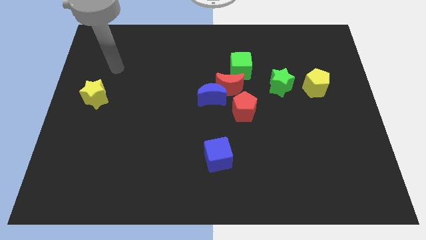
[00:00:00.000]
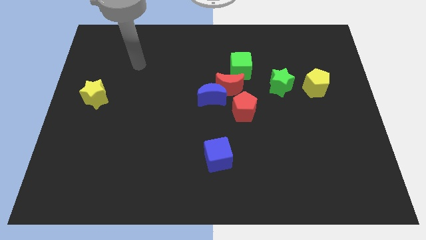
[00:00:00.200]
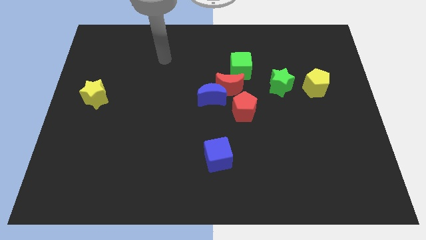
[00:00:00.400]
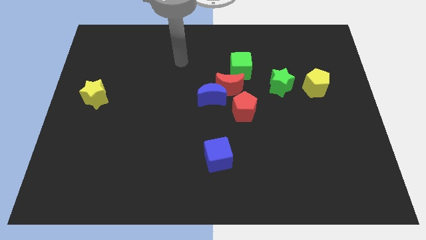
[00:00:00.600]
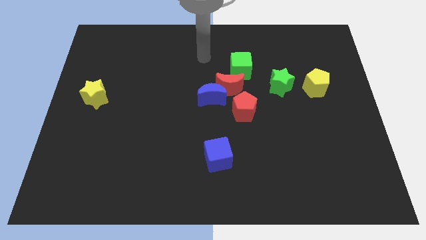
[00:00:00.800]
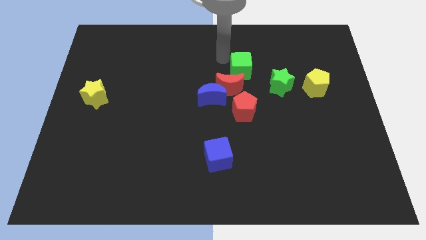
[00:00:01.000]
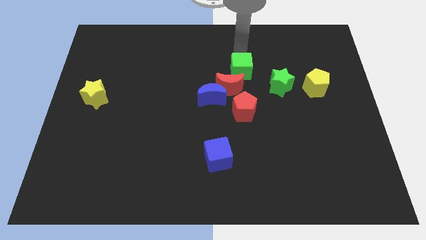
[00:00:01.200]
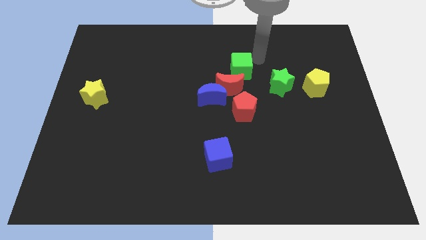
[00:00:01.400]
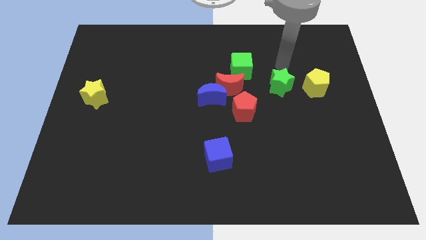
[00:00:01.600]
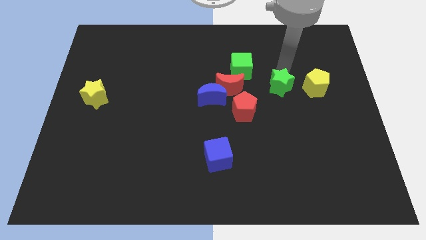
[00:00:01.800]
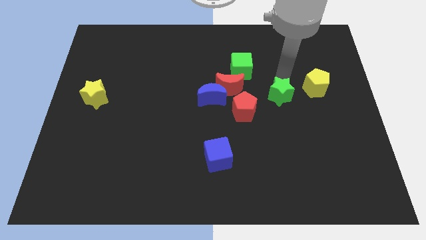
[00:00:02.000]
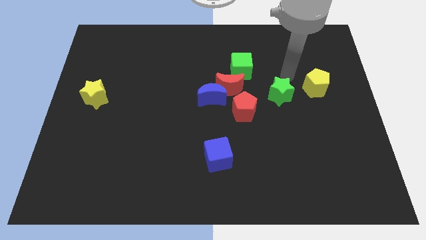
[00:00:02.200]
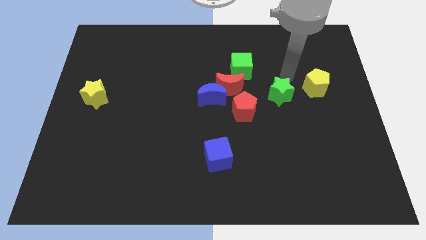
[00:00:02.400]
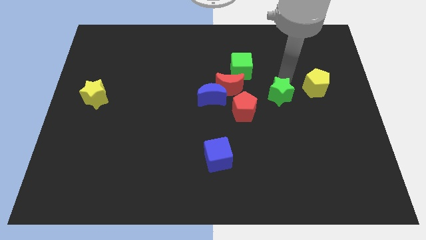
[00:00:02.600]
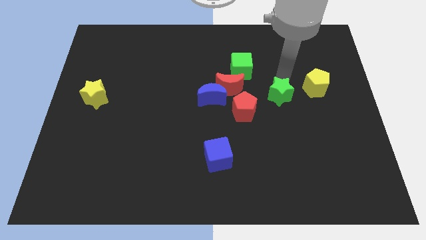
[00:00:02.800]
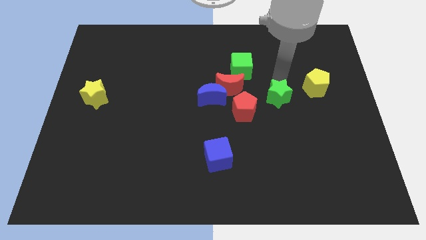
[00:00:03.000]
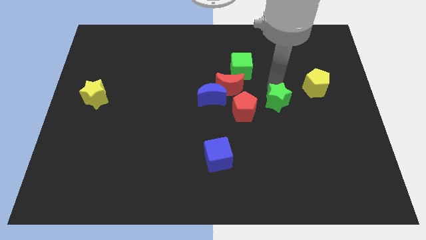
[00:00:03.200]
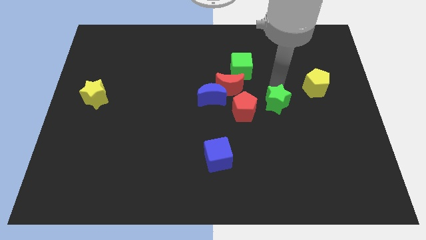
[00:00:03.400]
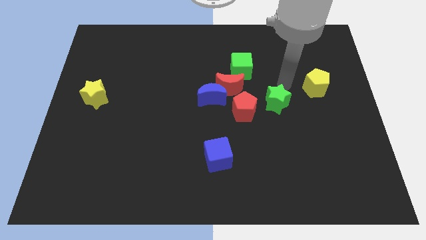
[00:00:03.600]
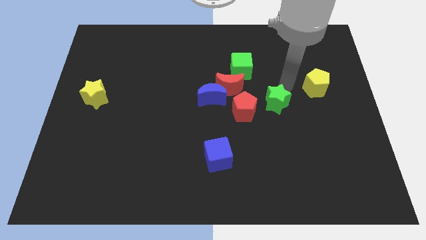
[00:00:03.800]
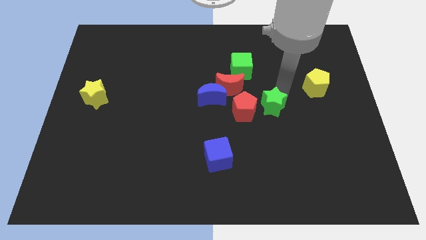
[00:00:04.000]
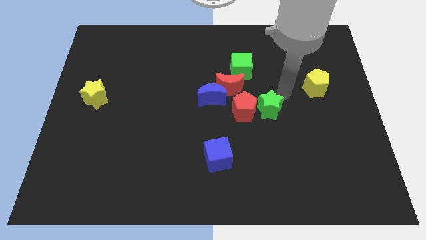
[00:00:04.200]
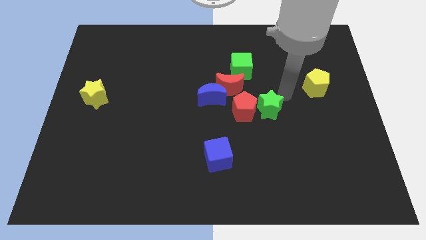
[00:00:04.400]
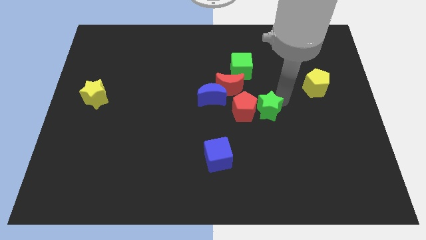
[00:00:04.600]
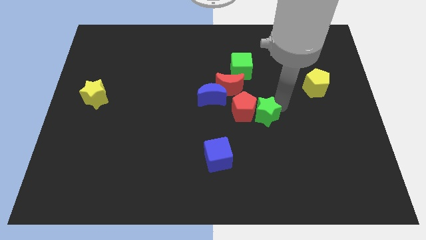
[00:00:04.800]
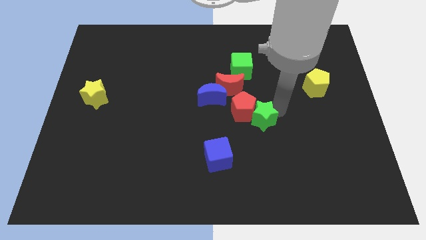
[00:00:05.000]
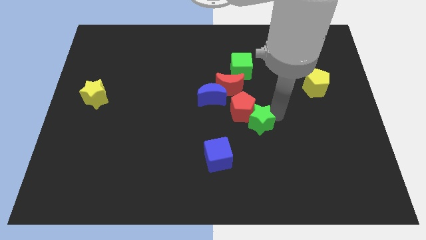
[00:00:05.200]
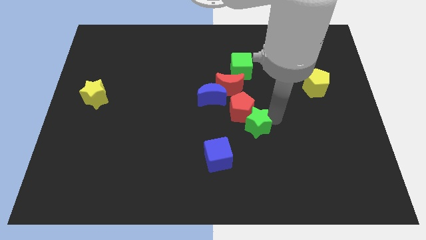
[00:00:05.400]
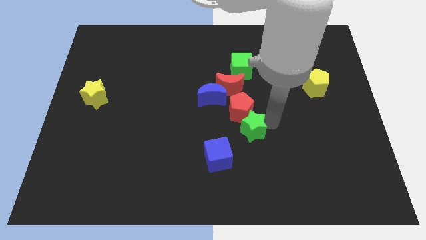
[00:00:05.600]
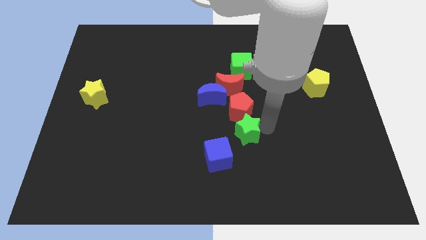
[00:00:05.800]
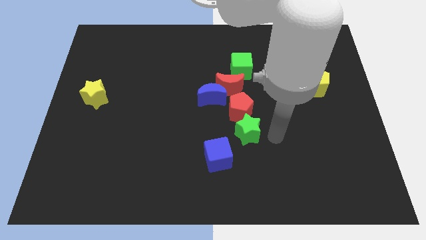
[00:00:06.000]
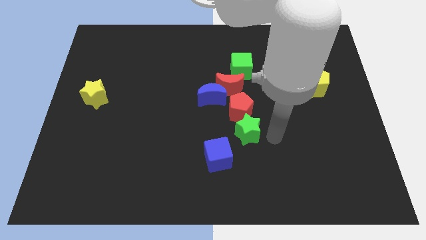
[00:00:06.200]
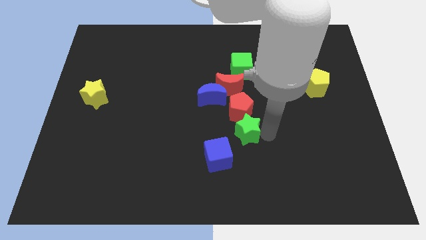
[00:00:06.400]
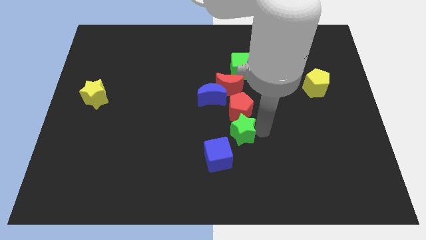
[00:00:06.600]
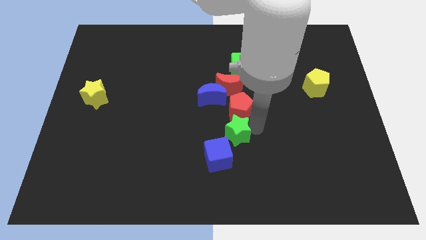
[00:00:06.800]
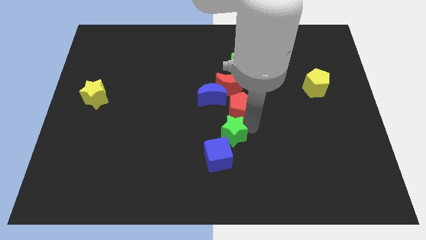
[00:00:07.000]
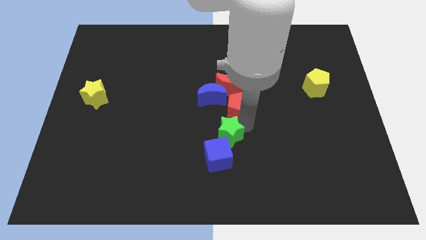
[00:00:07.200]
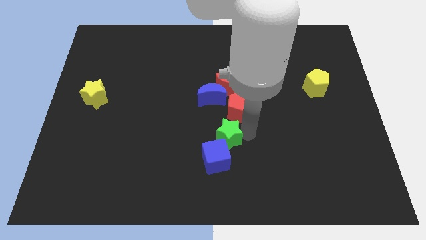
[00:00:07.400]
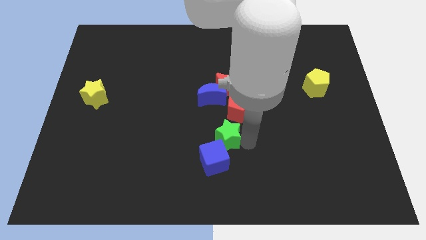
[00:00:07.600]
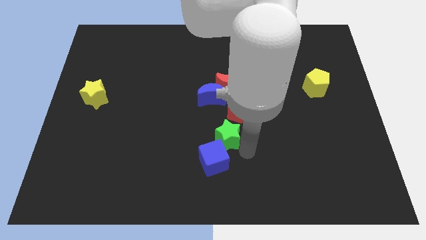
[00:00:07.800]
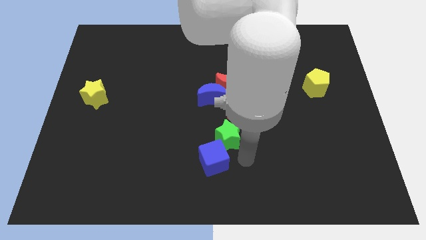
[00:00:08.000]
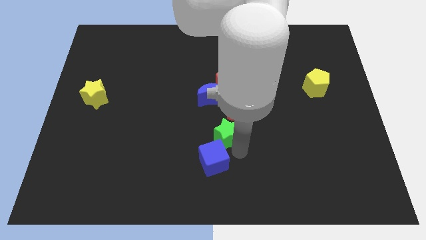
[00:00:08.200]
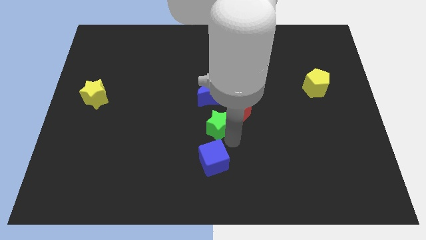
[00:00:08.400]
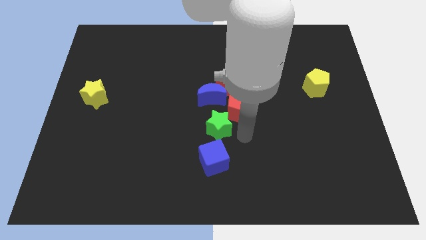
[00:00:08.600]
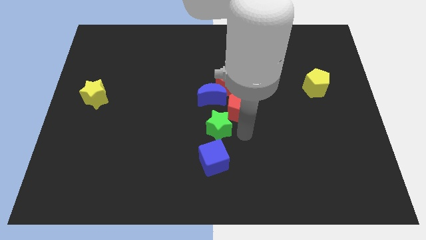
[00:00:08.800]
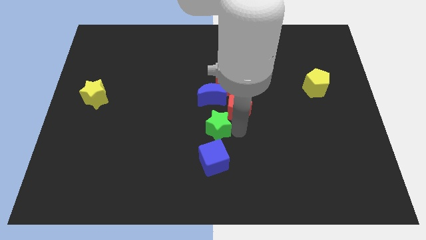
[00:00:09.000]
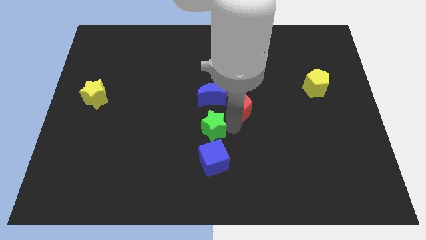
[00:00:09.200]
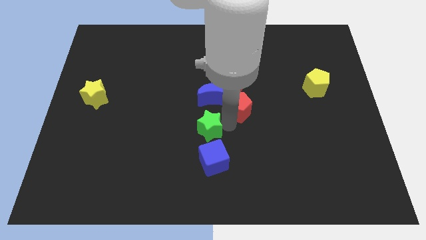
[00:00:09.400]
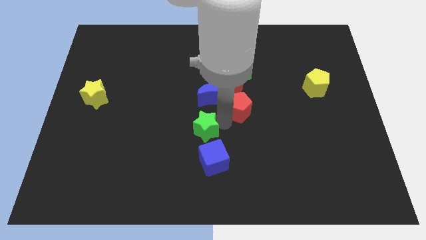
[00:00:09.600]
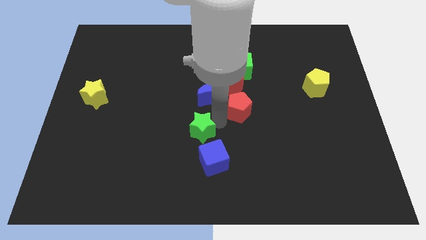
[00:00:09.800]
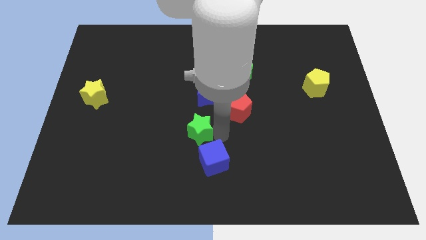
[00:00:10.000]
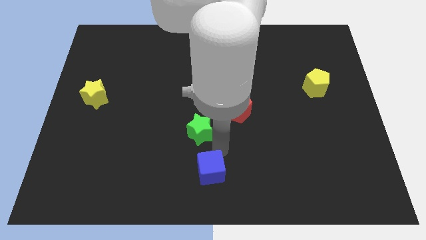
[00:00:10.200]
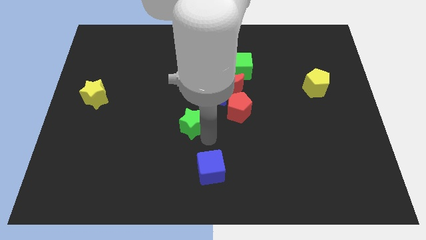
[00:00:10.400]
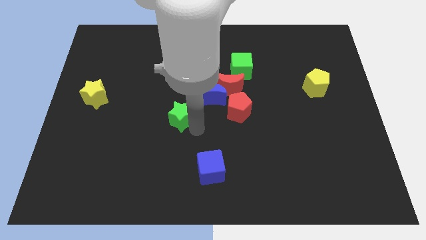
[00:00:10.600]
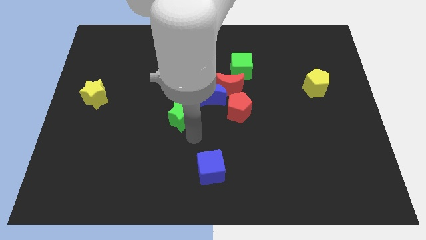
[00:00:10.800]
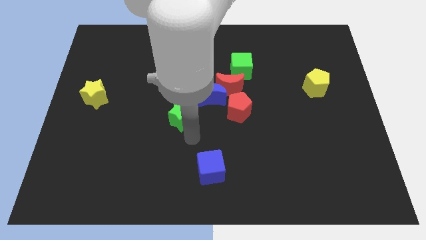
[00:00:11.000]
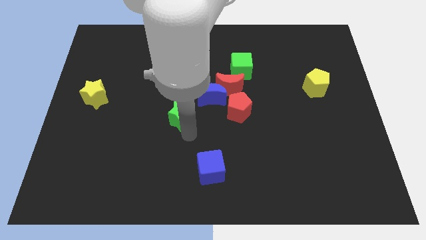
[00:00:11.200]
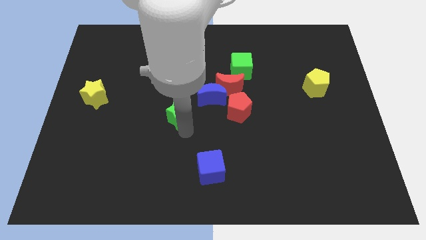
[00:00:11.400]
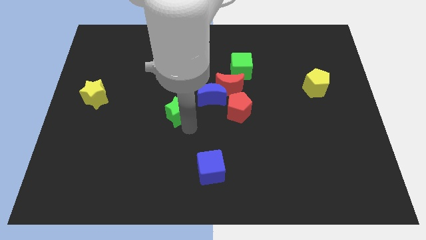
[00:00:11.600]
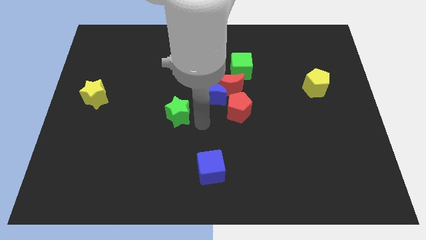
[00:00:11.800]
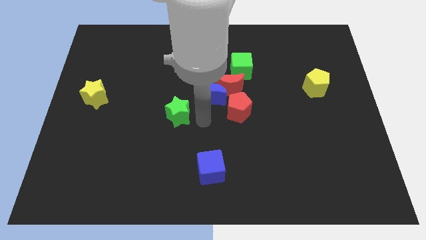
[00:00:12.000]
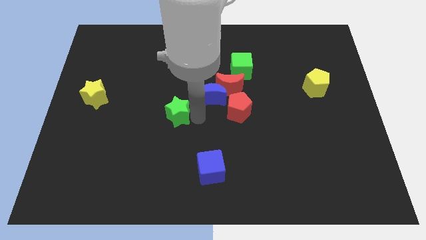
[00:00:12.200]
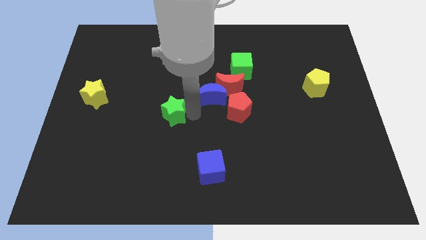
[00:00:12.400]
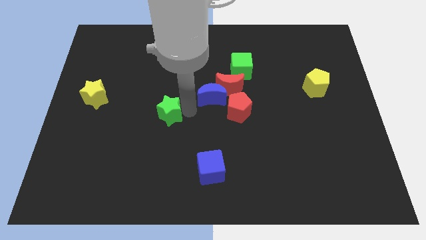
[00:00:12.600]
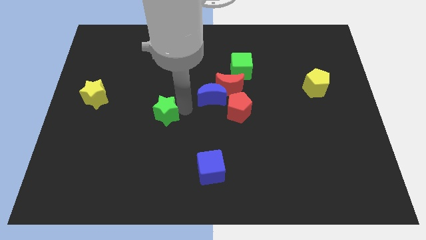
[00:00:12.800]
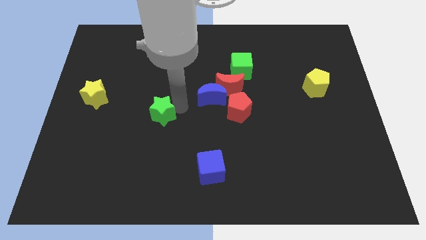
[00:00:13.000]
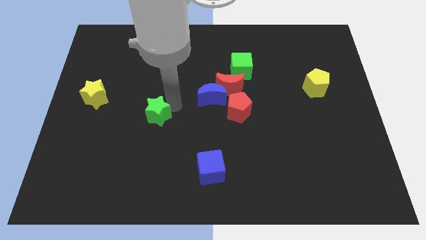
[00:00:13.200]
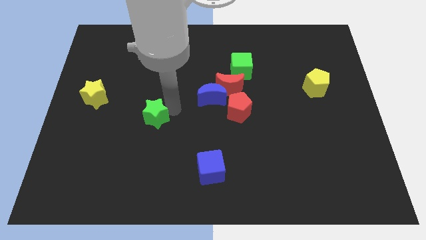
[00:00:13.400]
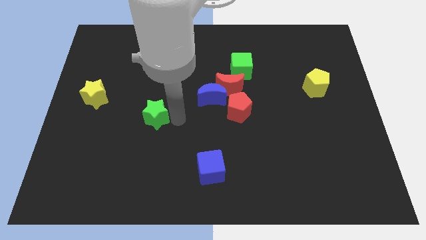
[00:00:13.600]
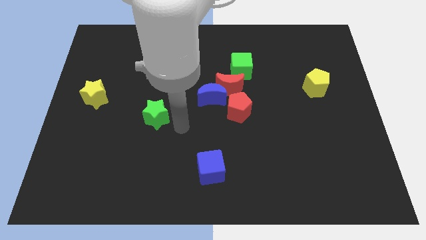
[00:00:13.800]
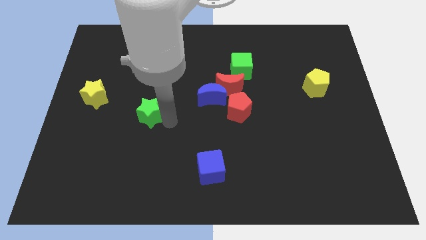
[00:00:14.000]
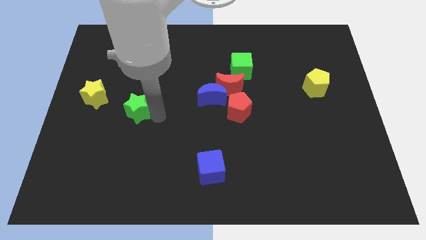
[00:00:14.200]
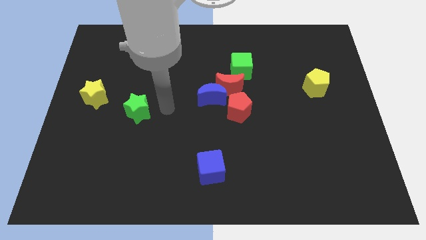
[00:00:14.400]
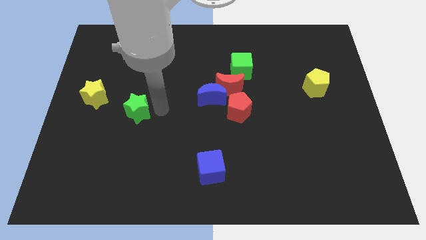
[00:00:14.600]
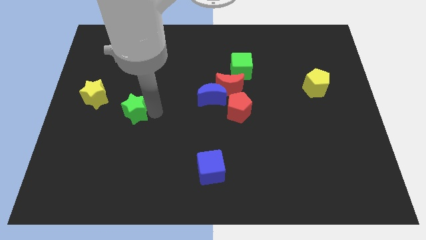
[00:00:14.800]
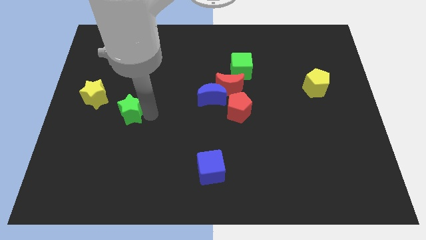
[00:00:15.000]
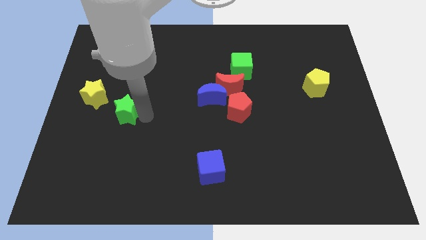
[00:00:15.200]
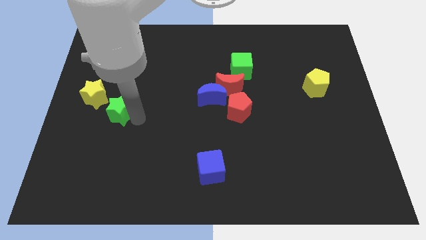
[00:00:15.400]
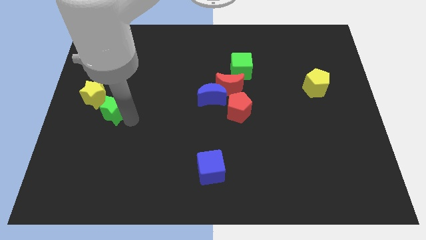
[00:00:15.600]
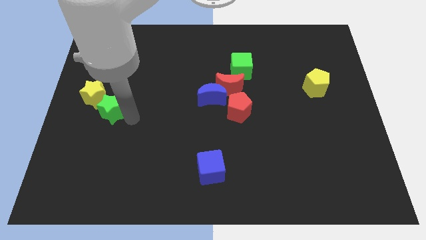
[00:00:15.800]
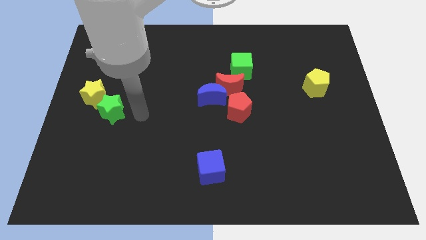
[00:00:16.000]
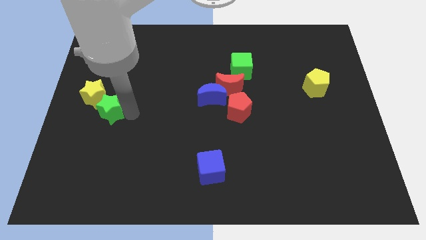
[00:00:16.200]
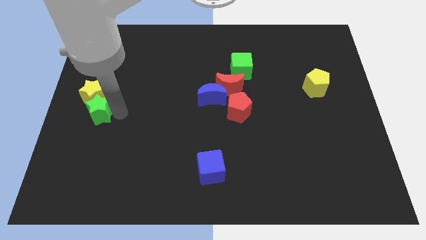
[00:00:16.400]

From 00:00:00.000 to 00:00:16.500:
slide the green star to the left side
